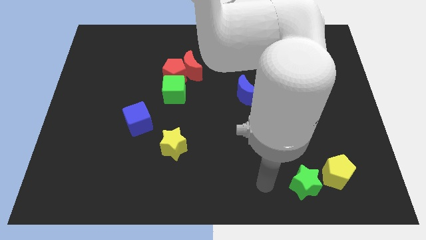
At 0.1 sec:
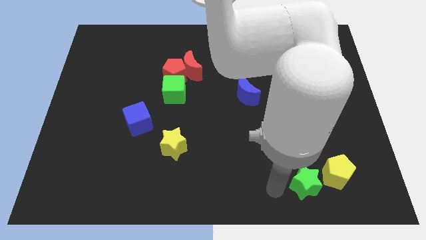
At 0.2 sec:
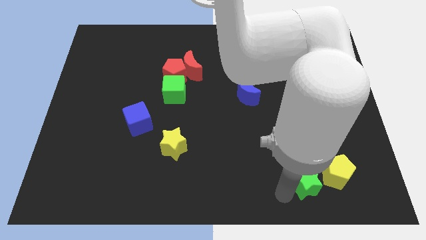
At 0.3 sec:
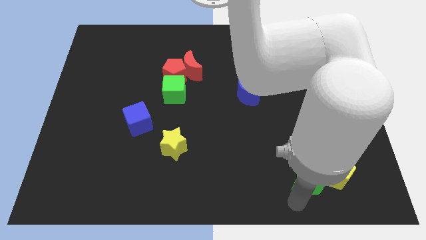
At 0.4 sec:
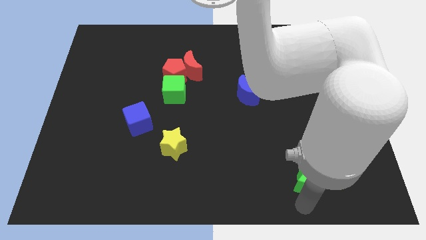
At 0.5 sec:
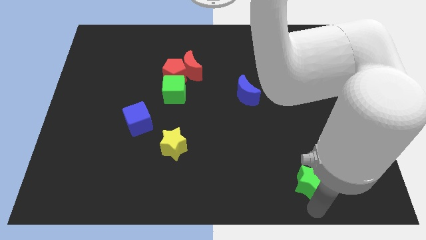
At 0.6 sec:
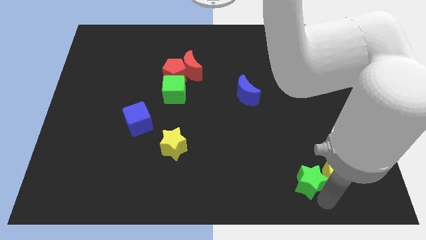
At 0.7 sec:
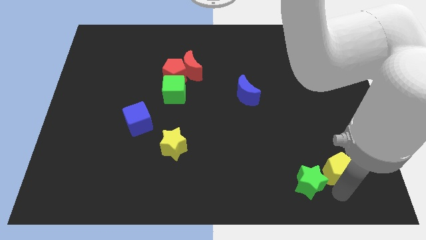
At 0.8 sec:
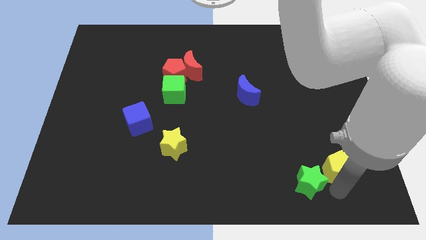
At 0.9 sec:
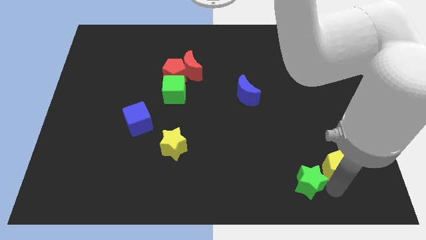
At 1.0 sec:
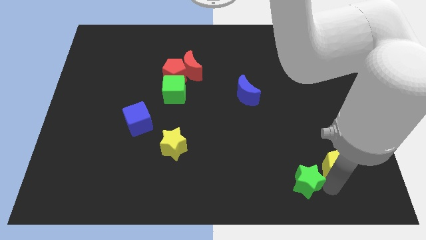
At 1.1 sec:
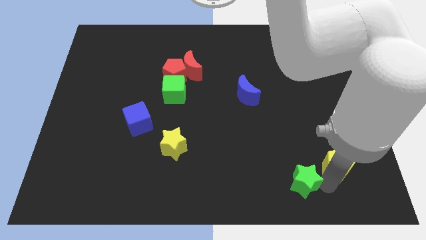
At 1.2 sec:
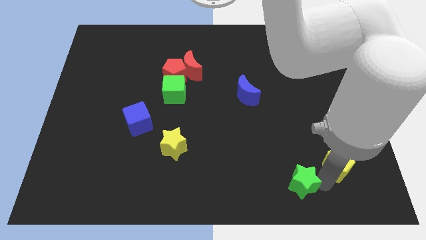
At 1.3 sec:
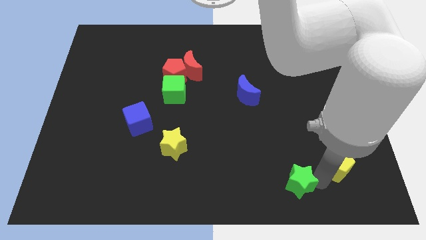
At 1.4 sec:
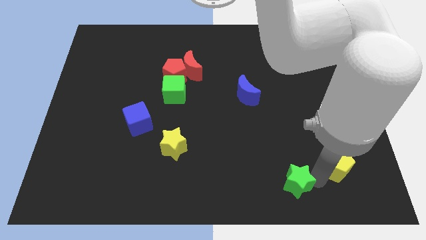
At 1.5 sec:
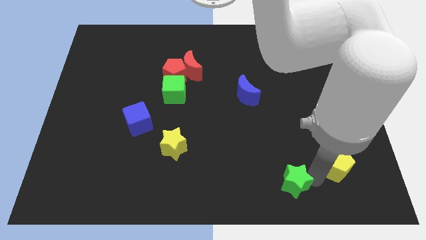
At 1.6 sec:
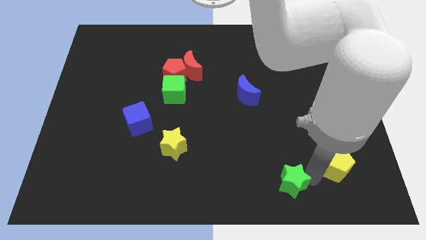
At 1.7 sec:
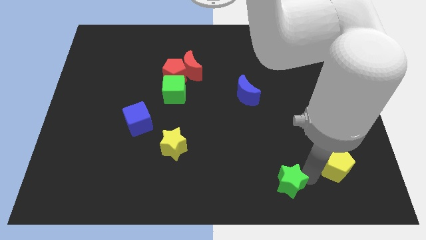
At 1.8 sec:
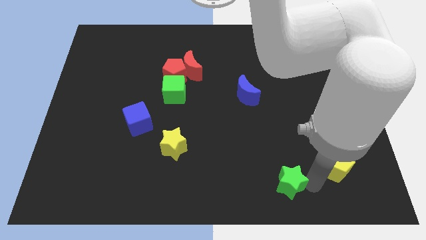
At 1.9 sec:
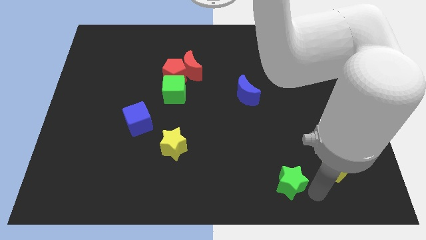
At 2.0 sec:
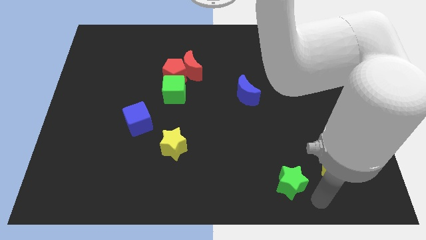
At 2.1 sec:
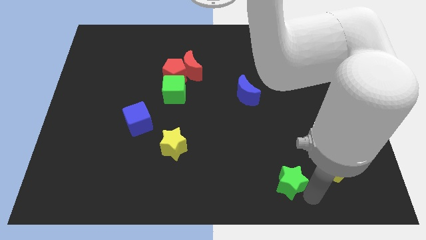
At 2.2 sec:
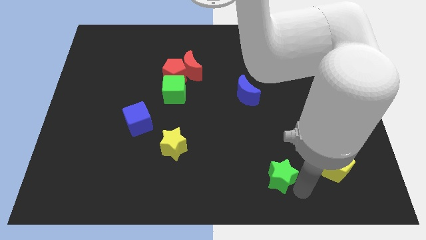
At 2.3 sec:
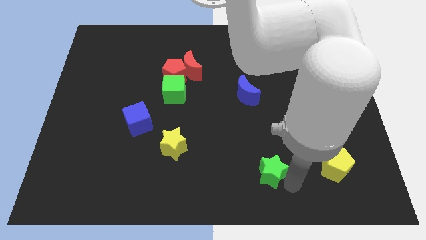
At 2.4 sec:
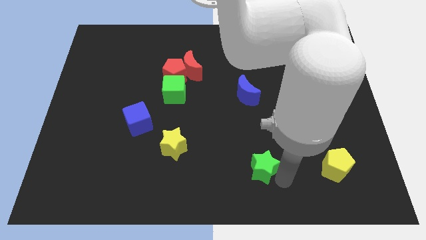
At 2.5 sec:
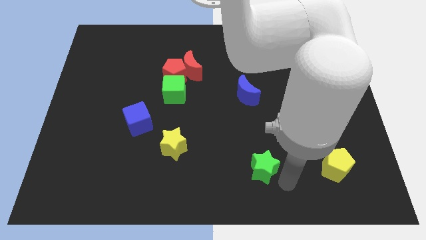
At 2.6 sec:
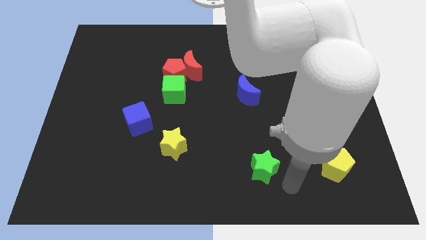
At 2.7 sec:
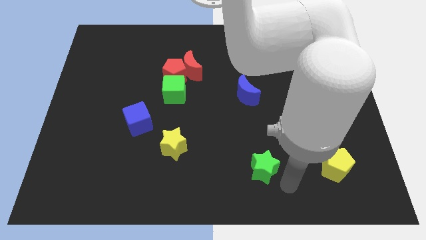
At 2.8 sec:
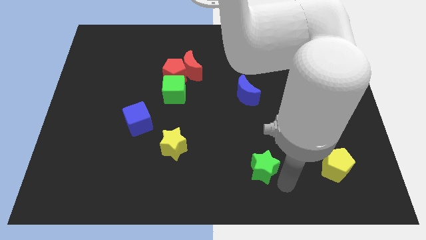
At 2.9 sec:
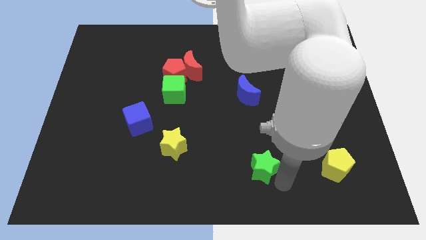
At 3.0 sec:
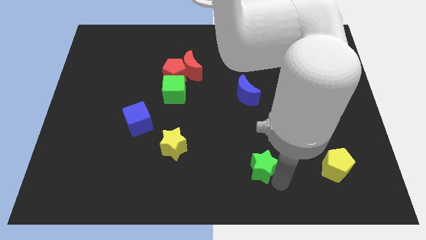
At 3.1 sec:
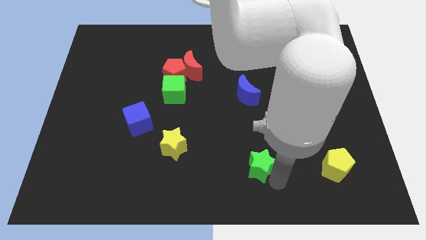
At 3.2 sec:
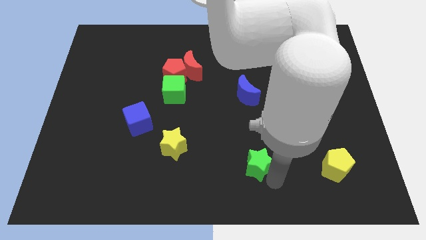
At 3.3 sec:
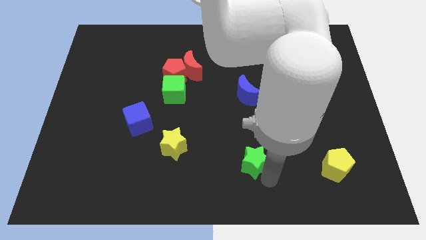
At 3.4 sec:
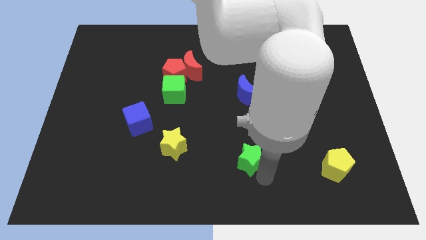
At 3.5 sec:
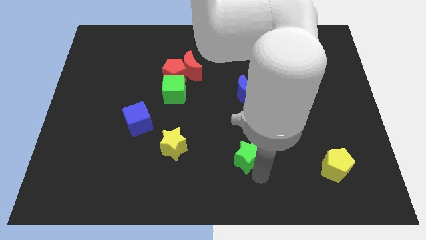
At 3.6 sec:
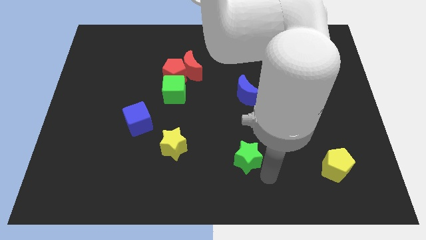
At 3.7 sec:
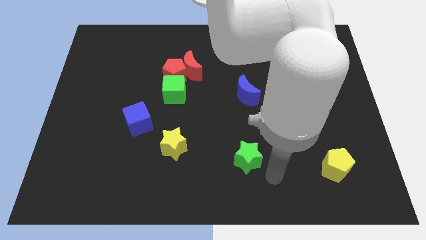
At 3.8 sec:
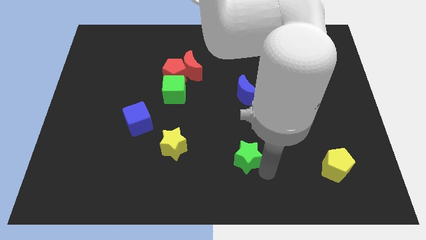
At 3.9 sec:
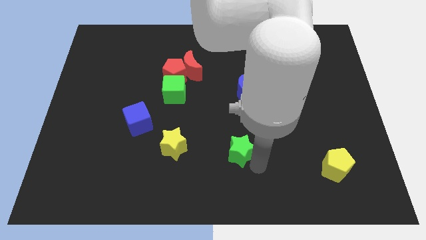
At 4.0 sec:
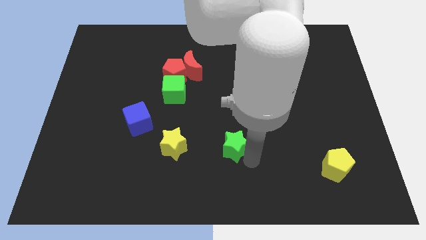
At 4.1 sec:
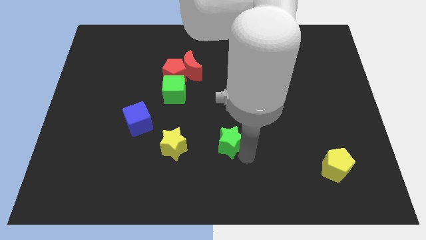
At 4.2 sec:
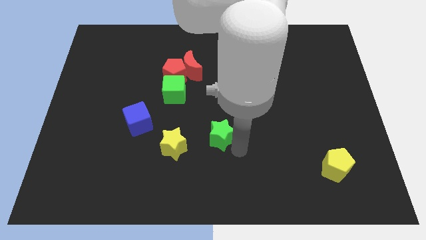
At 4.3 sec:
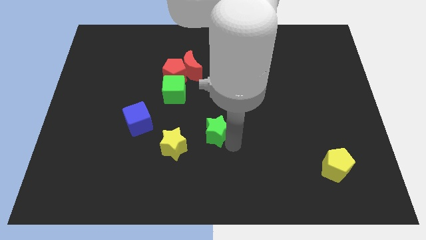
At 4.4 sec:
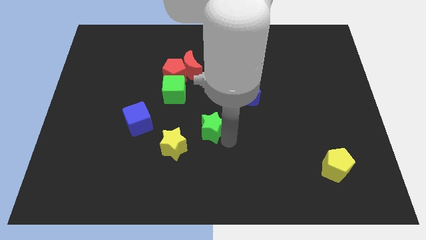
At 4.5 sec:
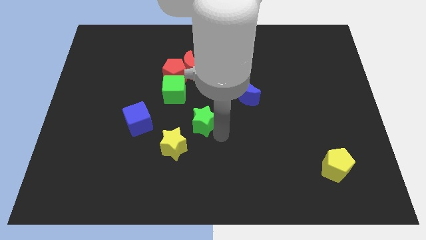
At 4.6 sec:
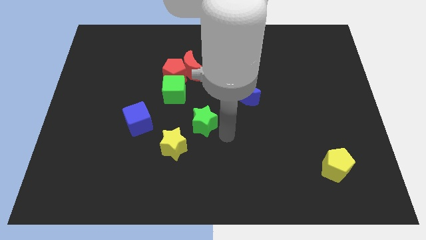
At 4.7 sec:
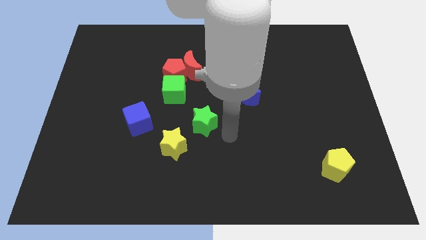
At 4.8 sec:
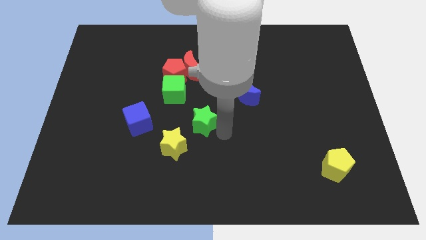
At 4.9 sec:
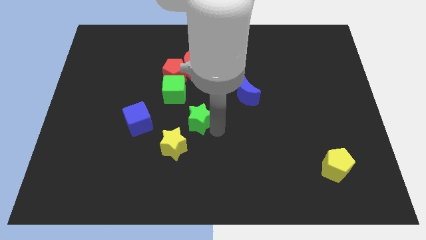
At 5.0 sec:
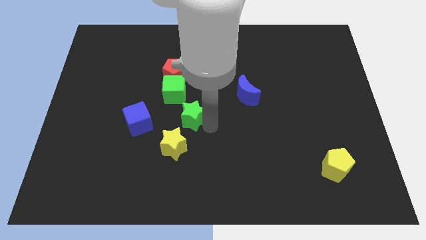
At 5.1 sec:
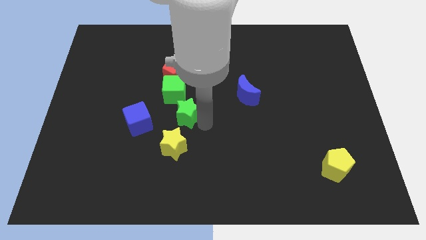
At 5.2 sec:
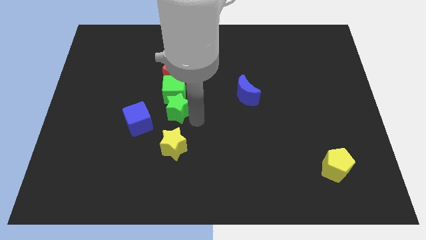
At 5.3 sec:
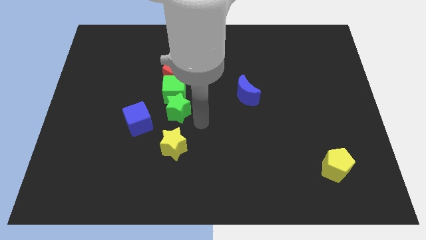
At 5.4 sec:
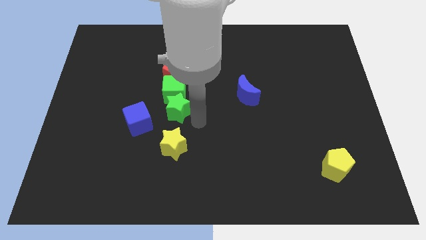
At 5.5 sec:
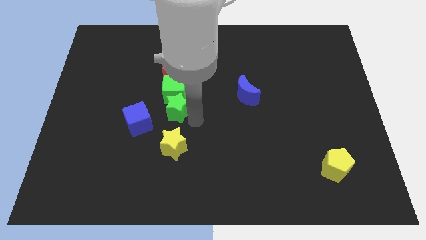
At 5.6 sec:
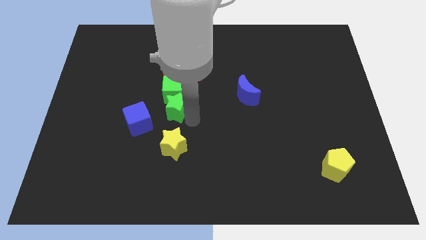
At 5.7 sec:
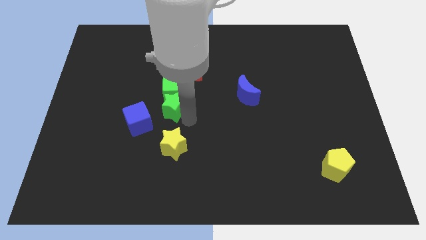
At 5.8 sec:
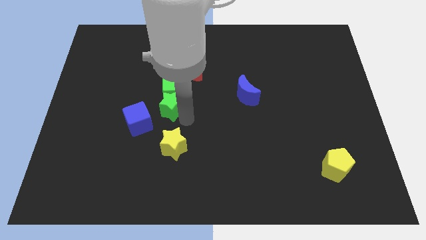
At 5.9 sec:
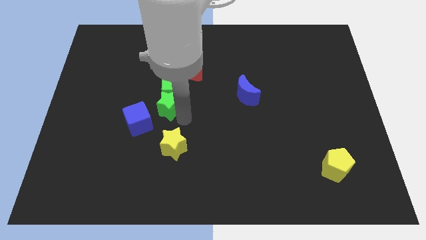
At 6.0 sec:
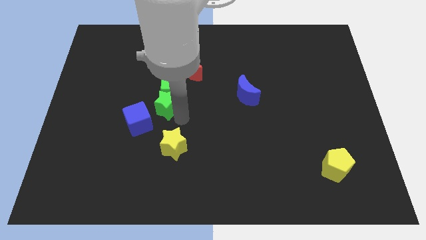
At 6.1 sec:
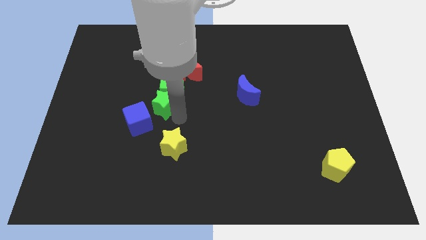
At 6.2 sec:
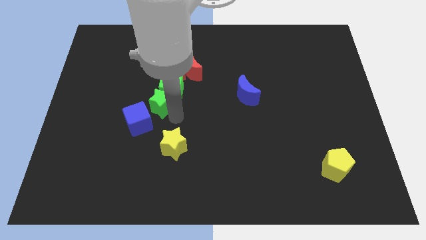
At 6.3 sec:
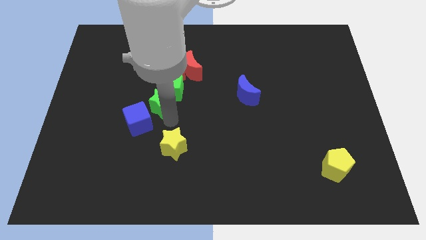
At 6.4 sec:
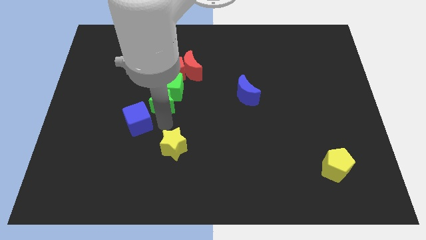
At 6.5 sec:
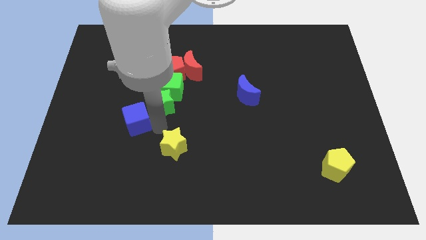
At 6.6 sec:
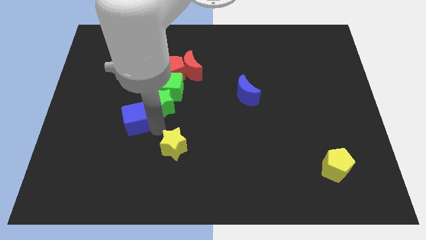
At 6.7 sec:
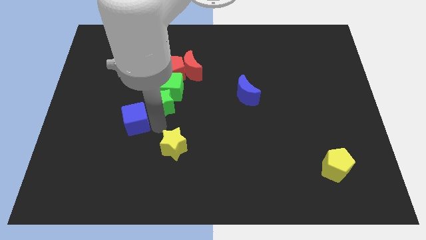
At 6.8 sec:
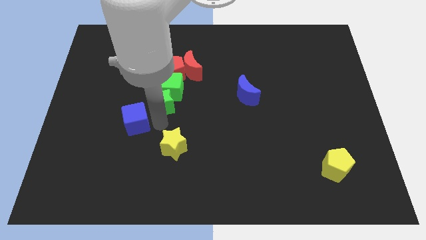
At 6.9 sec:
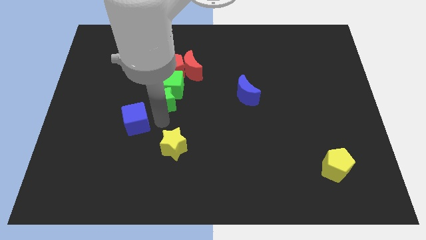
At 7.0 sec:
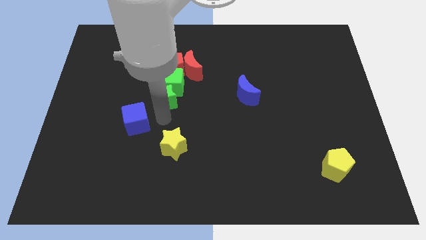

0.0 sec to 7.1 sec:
slide the green star diagonally down and to the left of the red moon
